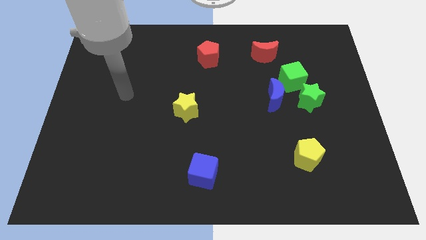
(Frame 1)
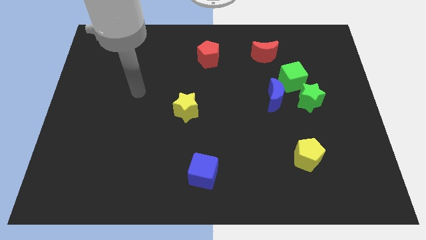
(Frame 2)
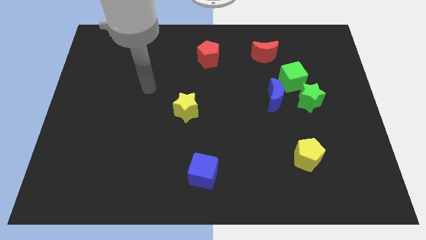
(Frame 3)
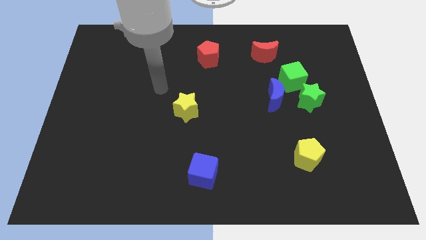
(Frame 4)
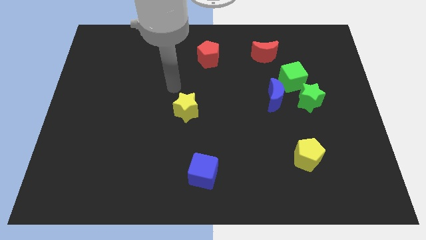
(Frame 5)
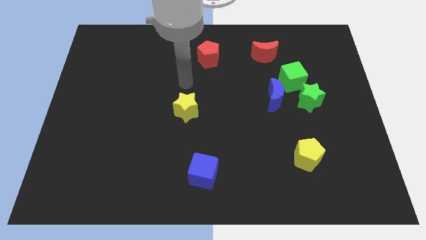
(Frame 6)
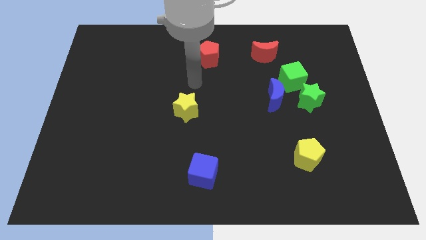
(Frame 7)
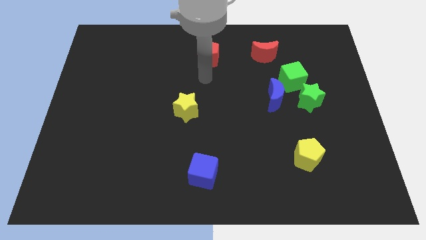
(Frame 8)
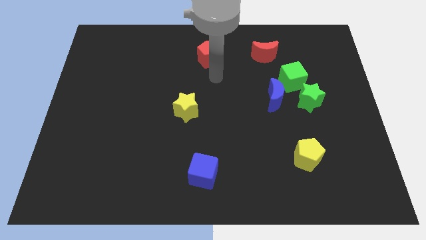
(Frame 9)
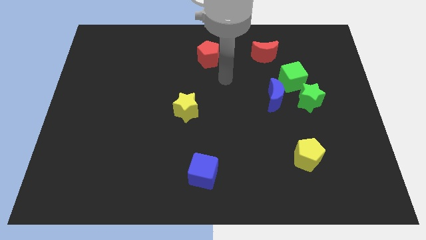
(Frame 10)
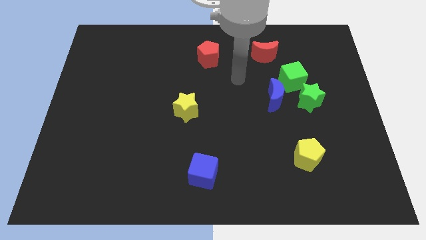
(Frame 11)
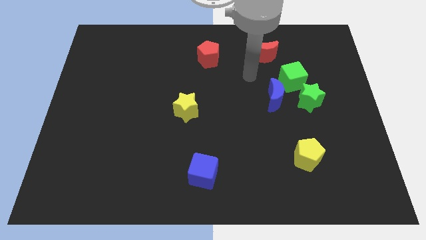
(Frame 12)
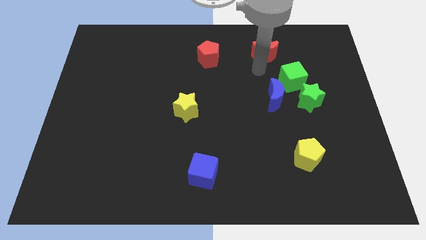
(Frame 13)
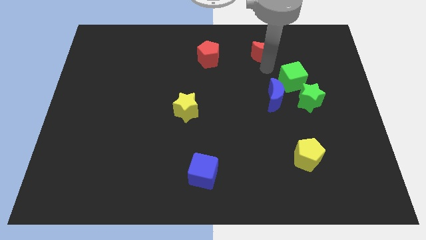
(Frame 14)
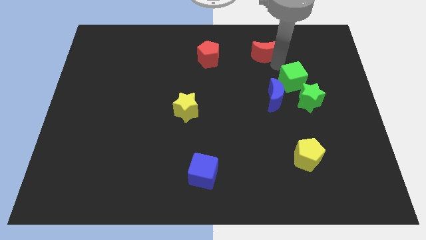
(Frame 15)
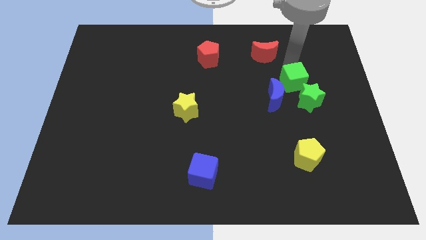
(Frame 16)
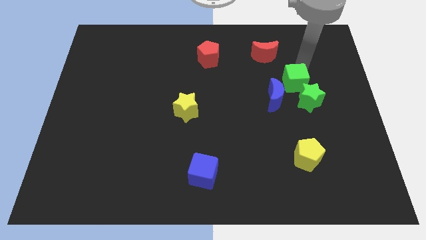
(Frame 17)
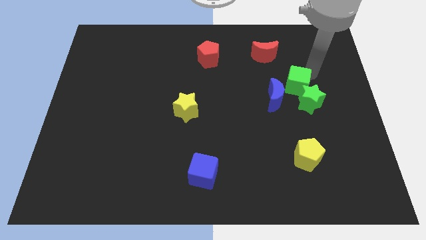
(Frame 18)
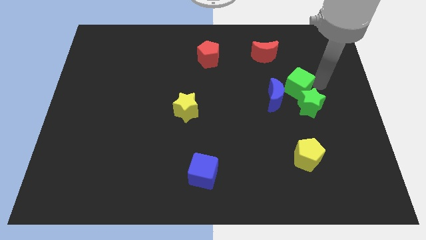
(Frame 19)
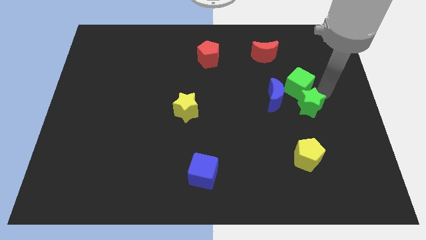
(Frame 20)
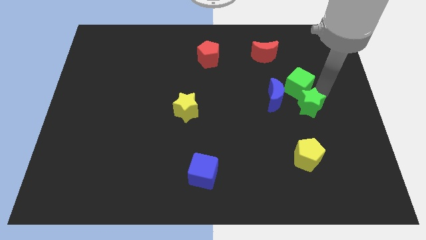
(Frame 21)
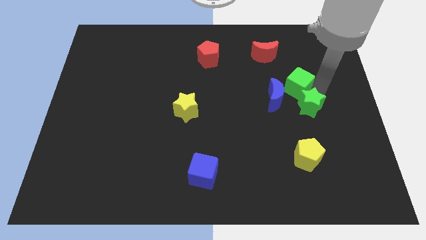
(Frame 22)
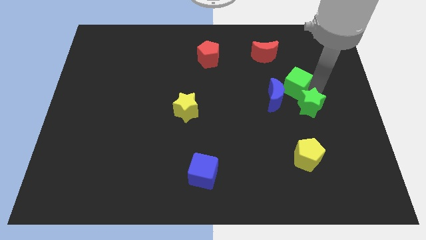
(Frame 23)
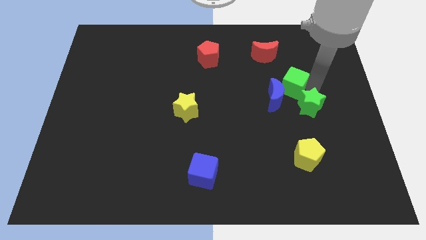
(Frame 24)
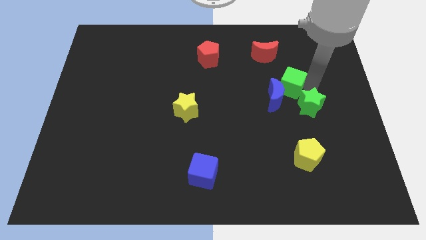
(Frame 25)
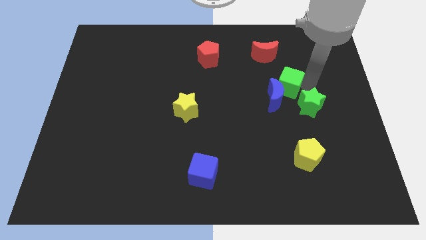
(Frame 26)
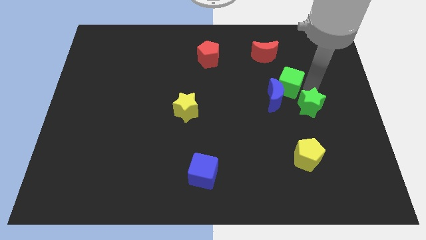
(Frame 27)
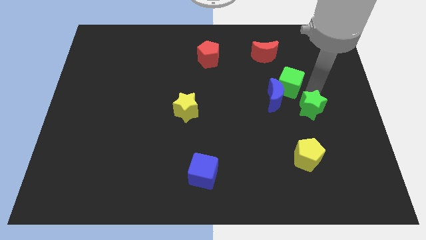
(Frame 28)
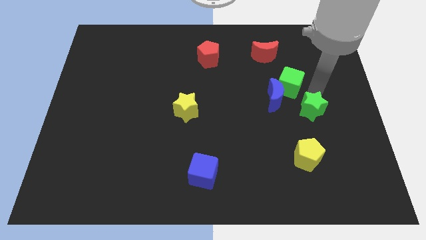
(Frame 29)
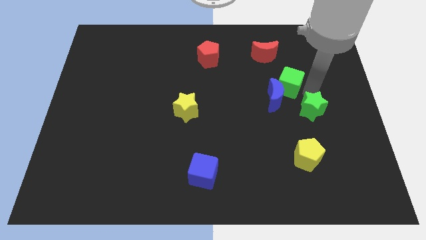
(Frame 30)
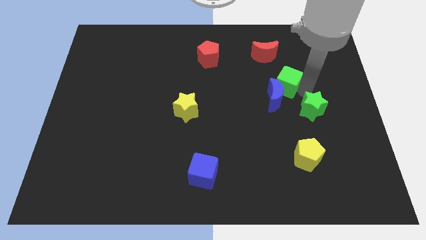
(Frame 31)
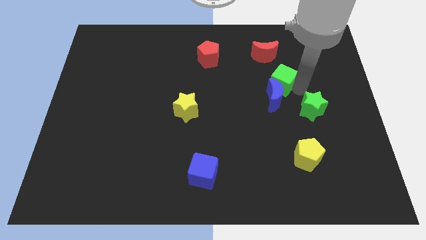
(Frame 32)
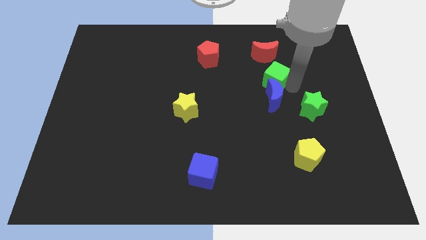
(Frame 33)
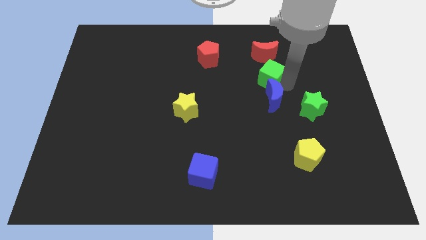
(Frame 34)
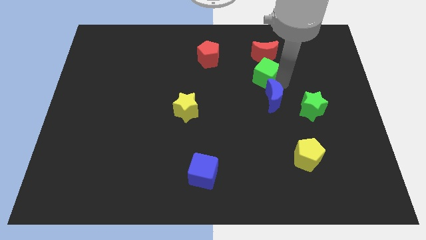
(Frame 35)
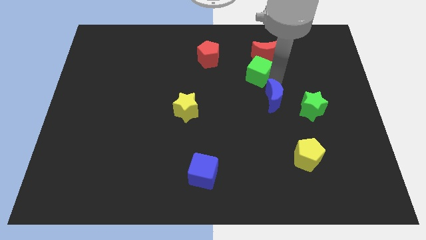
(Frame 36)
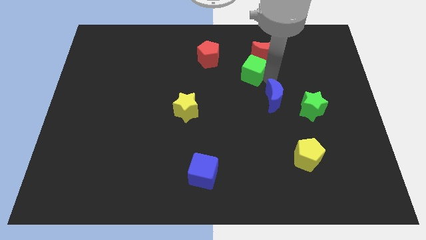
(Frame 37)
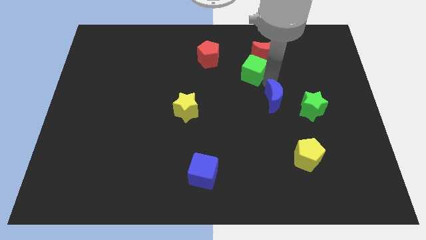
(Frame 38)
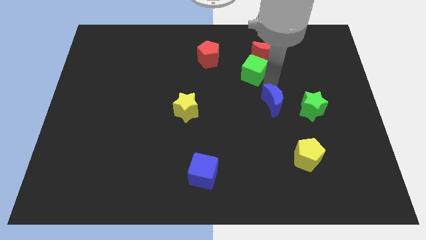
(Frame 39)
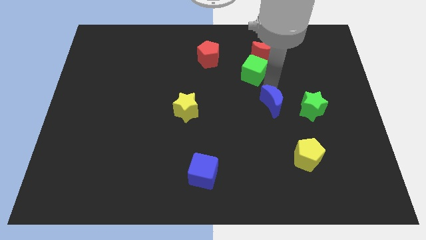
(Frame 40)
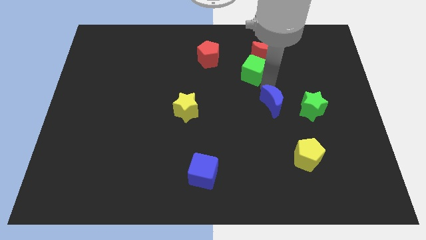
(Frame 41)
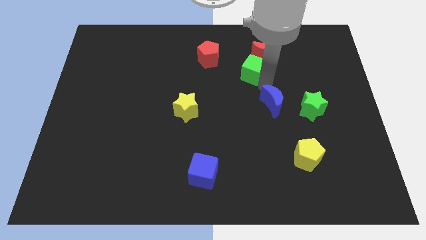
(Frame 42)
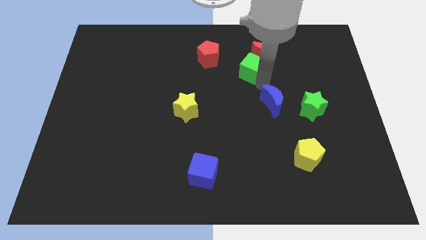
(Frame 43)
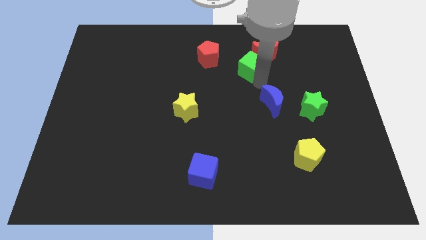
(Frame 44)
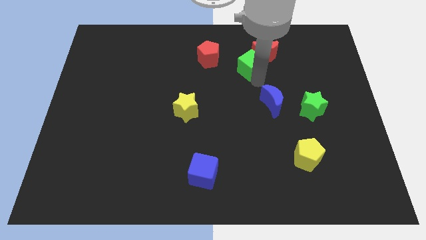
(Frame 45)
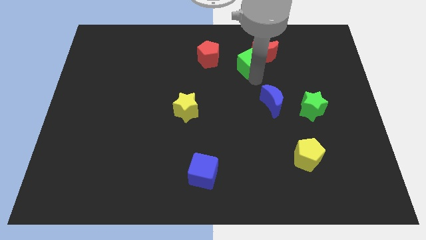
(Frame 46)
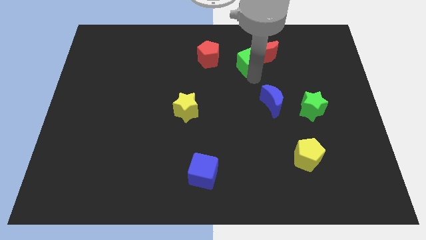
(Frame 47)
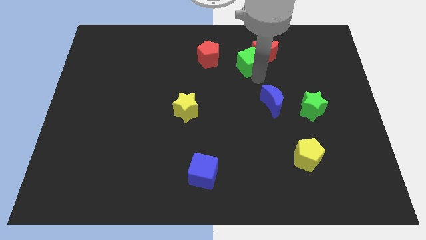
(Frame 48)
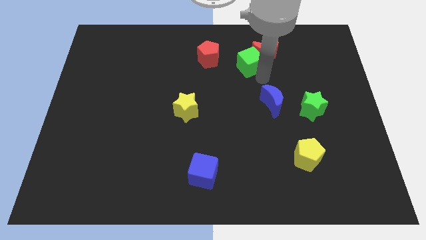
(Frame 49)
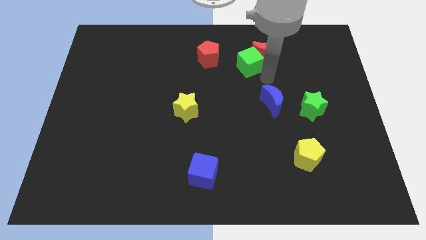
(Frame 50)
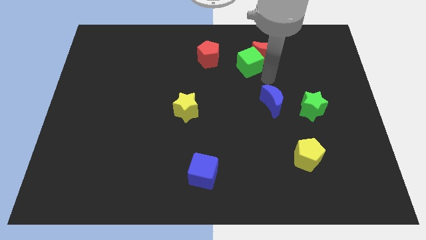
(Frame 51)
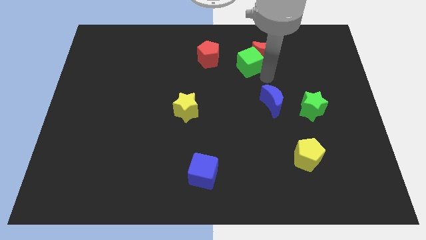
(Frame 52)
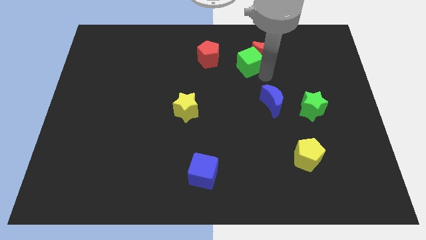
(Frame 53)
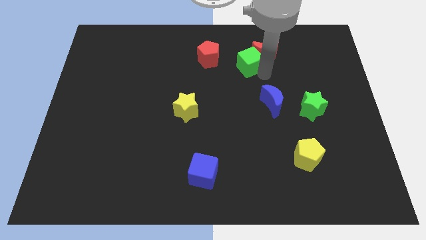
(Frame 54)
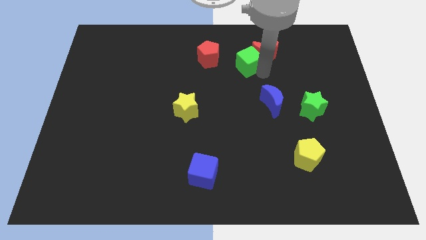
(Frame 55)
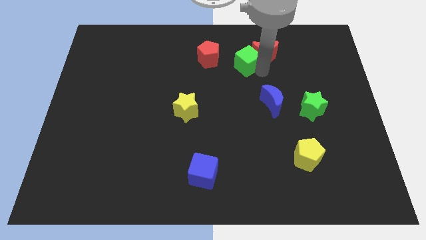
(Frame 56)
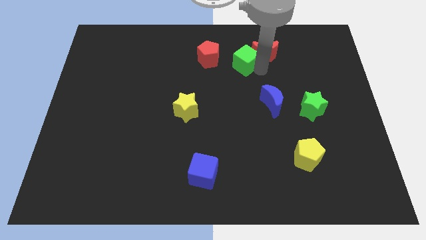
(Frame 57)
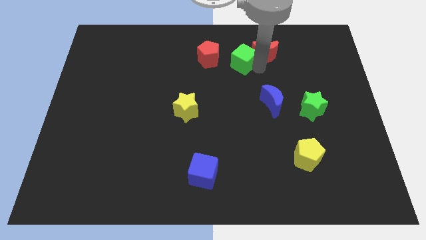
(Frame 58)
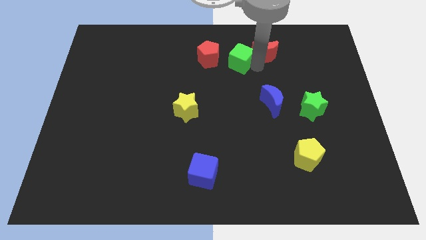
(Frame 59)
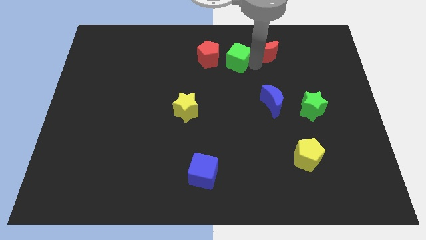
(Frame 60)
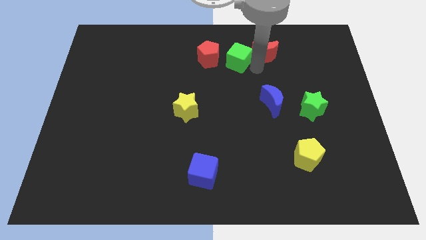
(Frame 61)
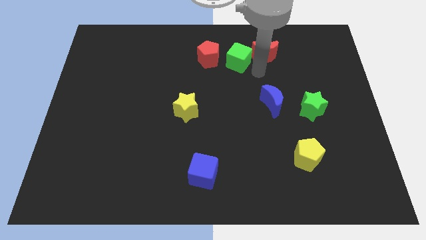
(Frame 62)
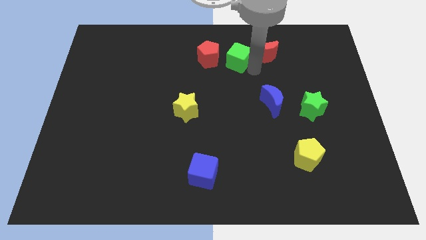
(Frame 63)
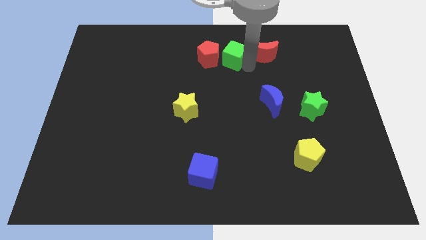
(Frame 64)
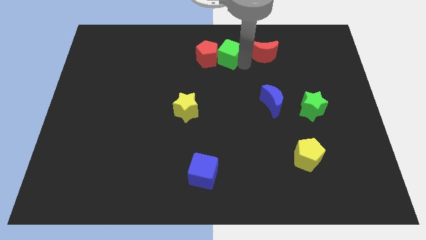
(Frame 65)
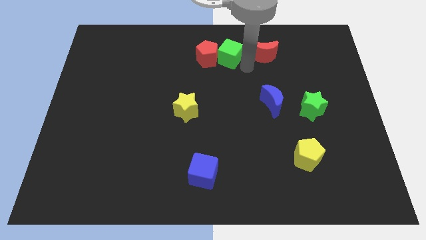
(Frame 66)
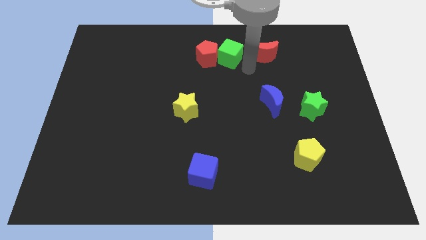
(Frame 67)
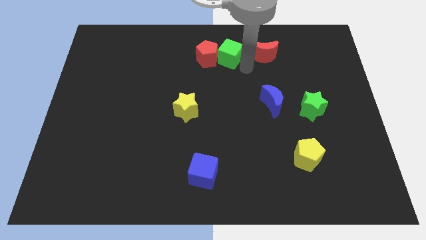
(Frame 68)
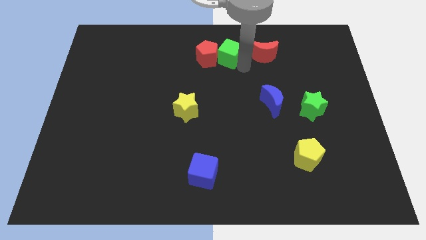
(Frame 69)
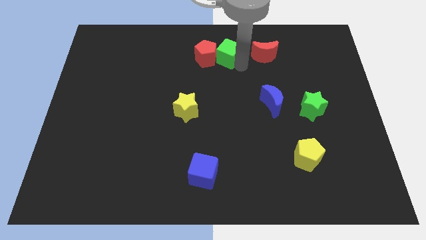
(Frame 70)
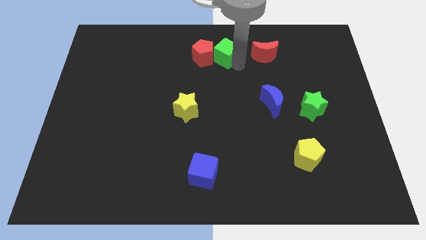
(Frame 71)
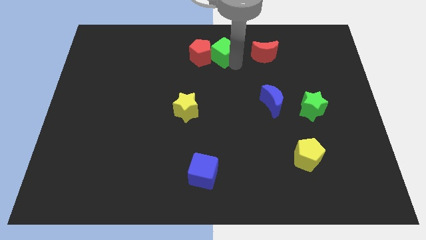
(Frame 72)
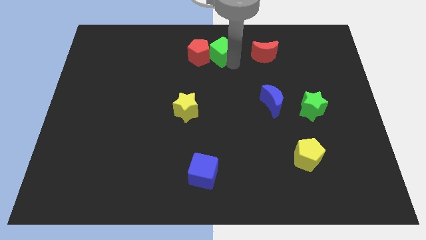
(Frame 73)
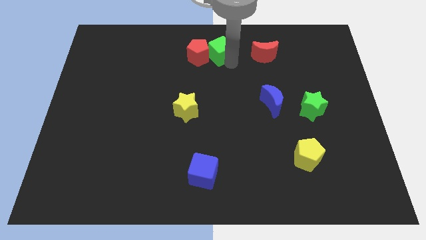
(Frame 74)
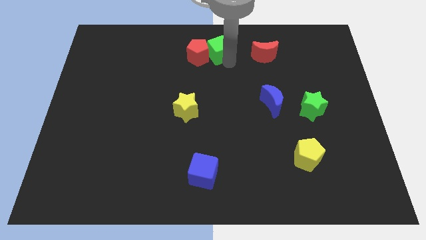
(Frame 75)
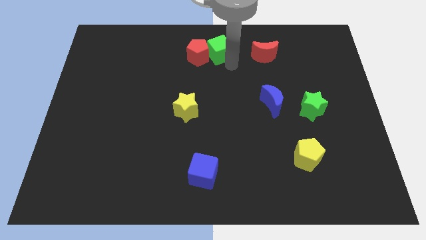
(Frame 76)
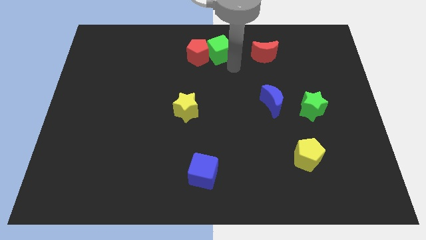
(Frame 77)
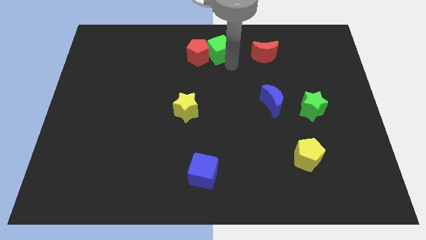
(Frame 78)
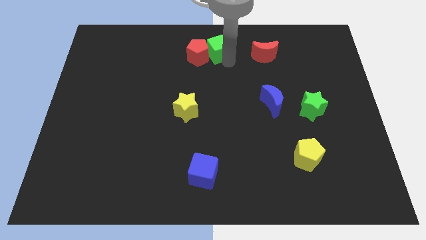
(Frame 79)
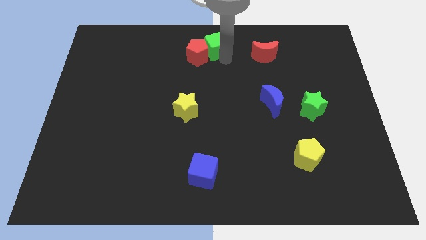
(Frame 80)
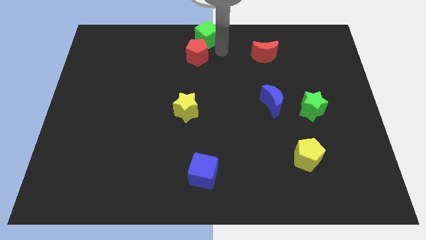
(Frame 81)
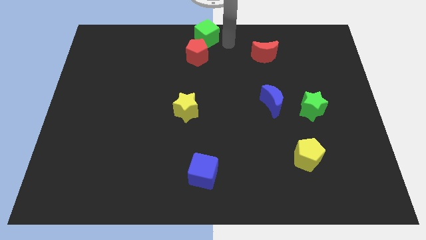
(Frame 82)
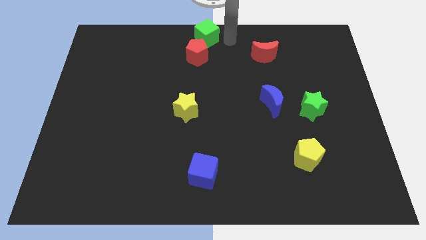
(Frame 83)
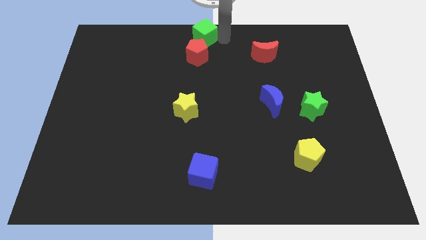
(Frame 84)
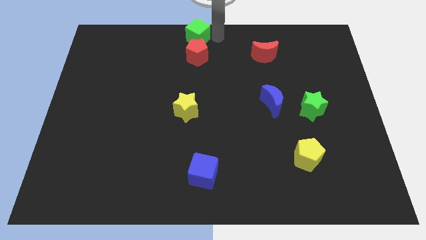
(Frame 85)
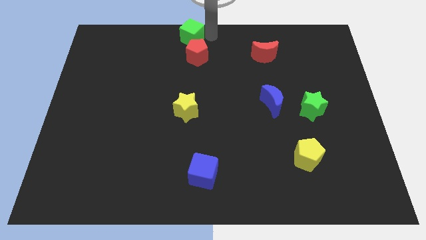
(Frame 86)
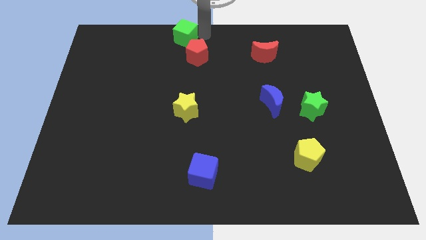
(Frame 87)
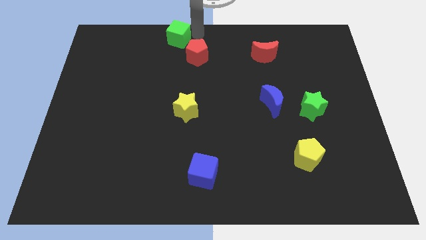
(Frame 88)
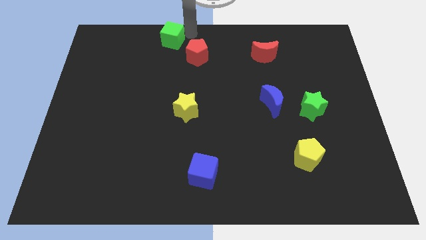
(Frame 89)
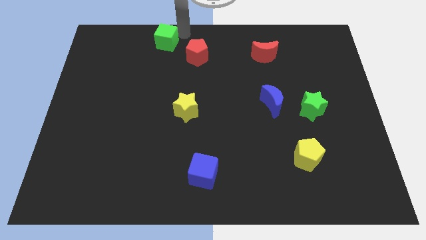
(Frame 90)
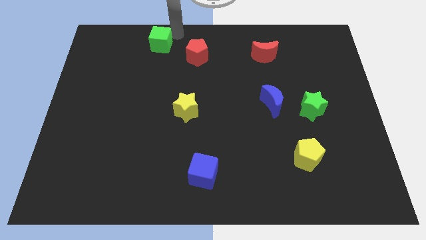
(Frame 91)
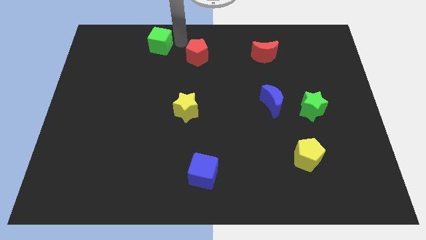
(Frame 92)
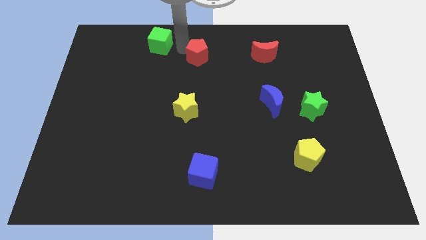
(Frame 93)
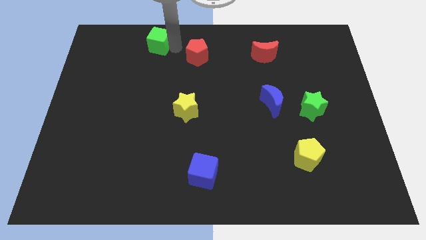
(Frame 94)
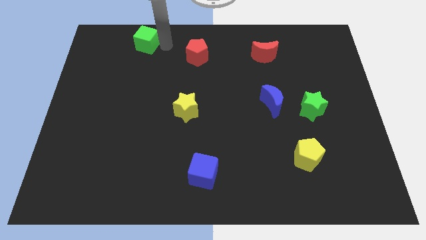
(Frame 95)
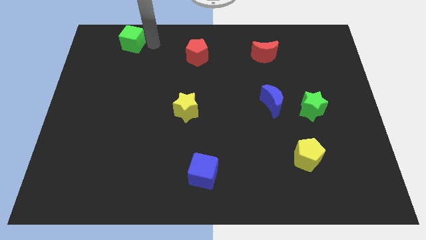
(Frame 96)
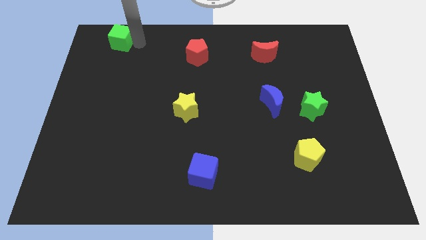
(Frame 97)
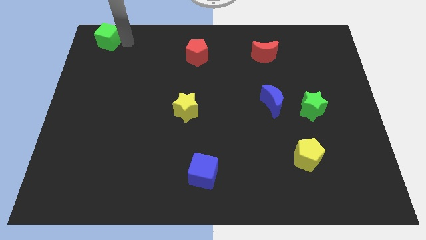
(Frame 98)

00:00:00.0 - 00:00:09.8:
push the green cube to the top left of the board
